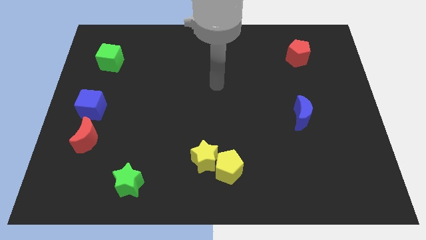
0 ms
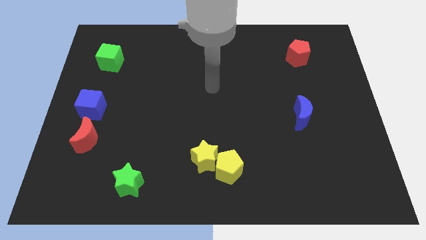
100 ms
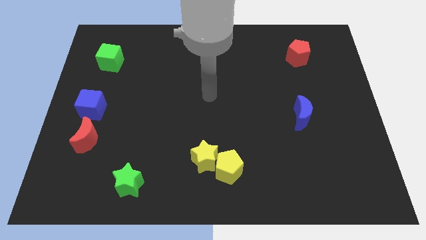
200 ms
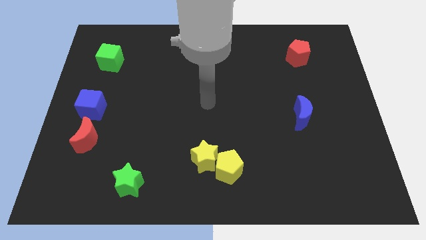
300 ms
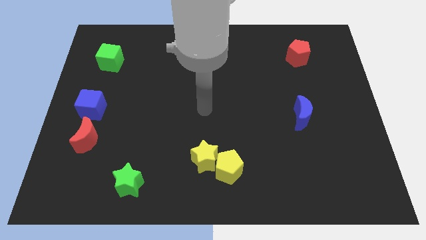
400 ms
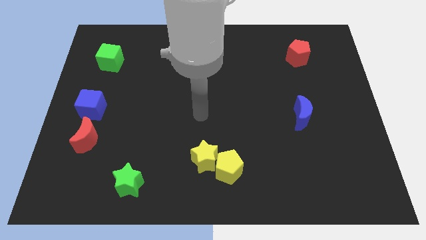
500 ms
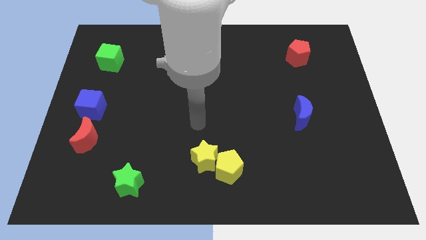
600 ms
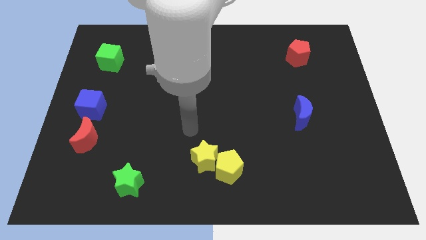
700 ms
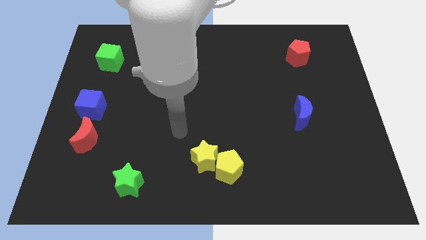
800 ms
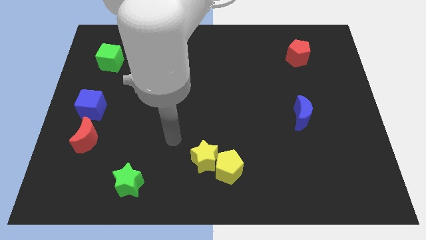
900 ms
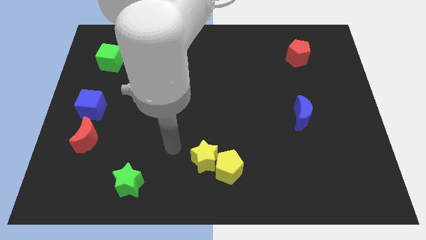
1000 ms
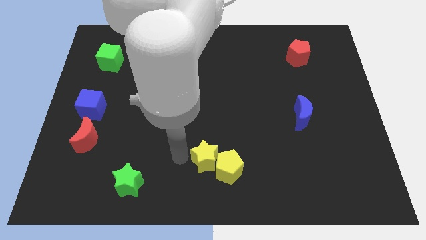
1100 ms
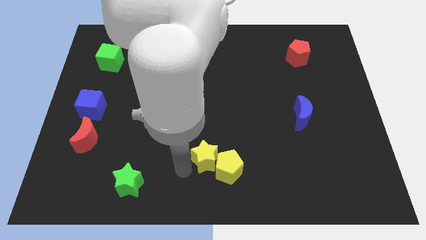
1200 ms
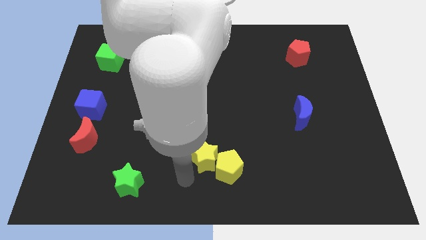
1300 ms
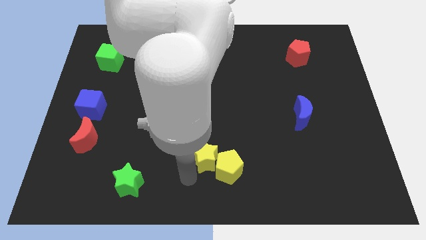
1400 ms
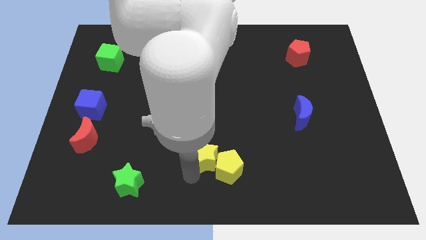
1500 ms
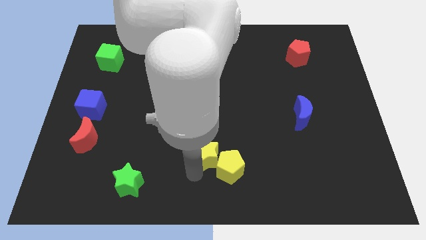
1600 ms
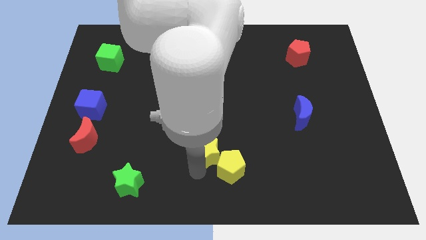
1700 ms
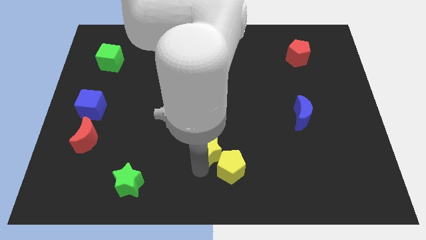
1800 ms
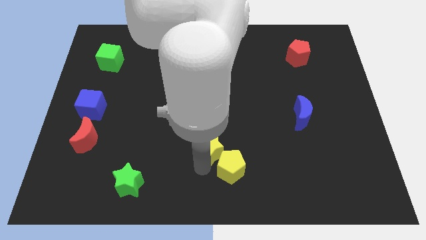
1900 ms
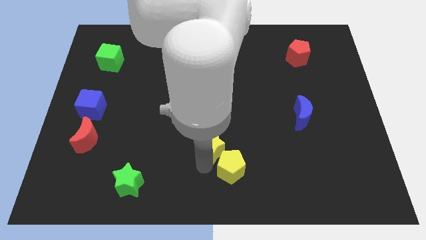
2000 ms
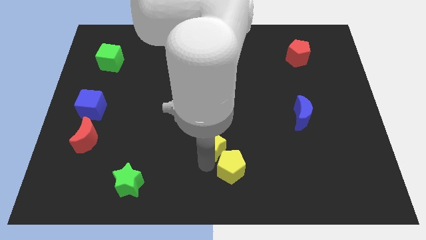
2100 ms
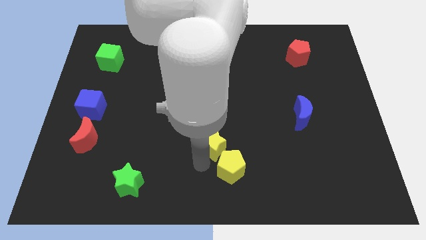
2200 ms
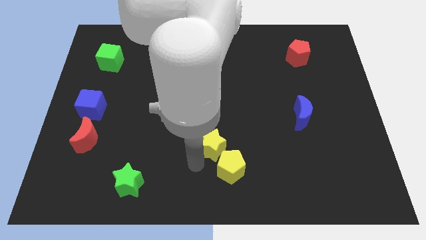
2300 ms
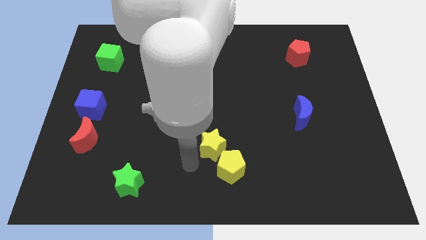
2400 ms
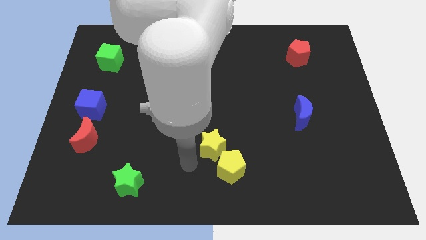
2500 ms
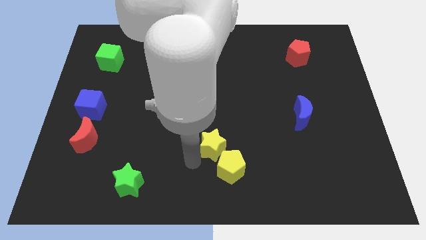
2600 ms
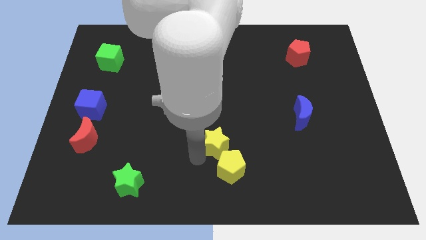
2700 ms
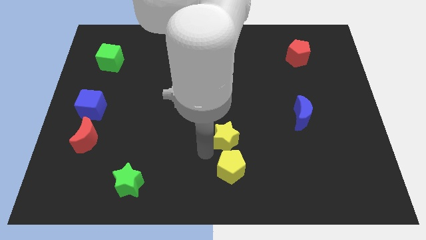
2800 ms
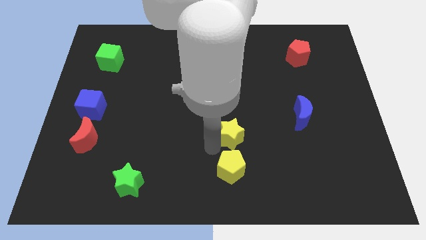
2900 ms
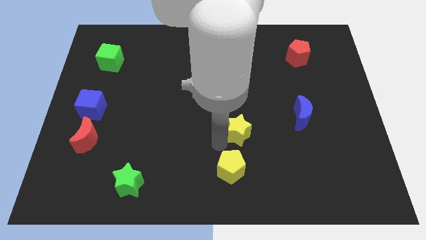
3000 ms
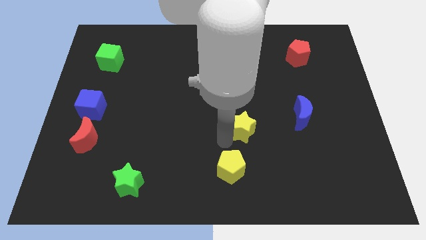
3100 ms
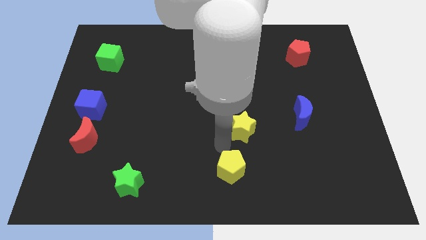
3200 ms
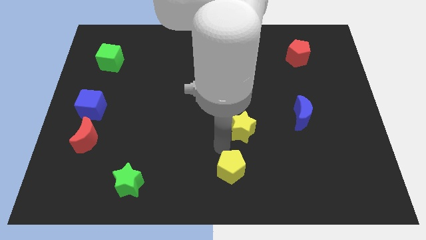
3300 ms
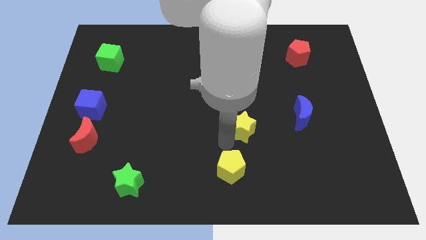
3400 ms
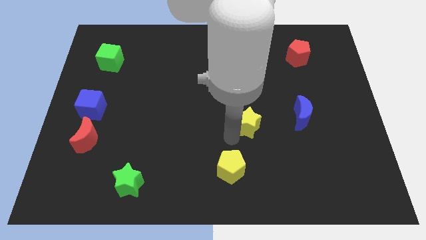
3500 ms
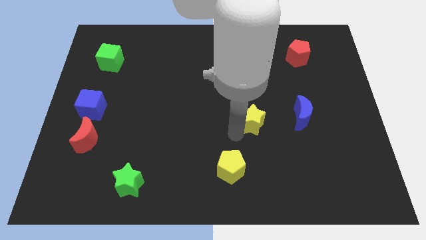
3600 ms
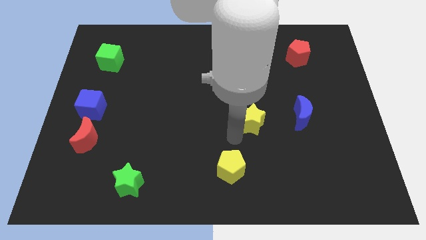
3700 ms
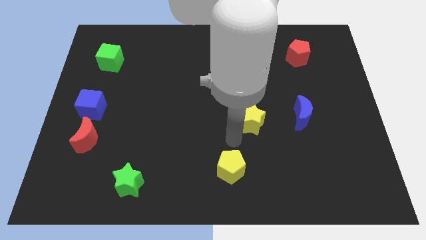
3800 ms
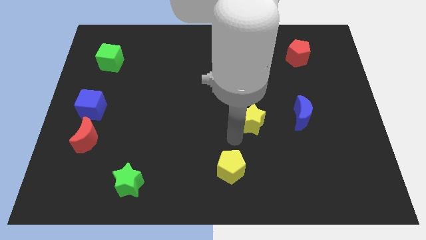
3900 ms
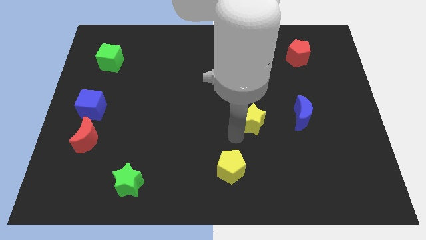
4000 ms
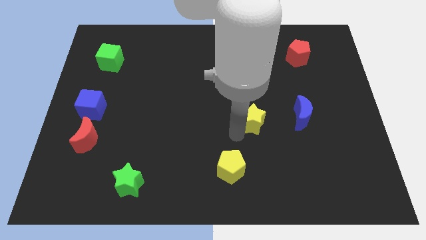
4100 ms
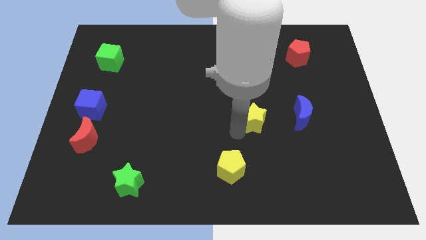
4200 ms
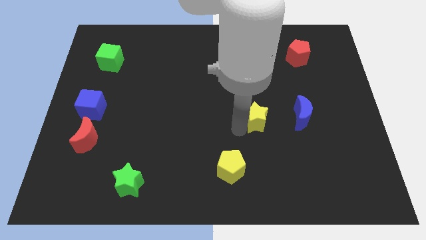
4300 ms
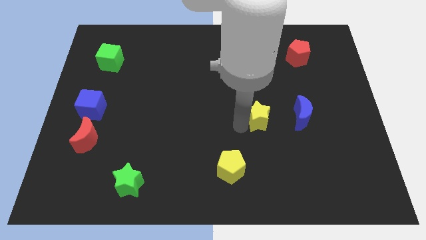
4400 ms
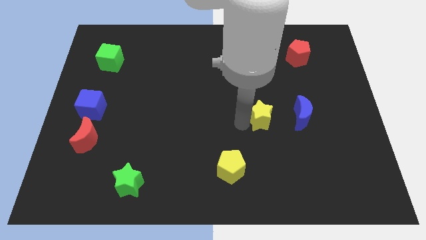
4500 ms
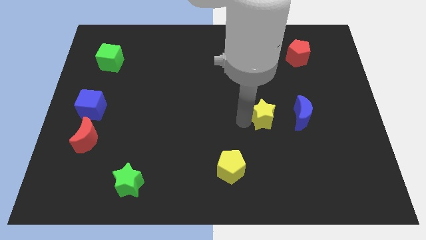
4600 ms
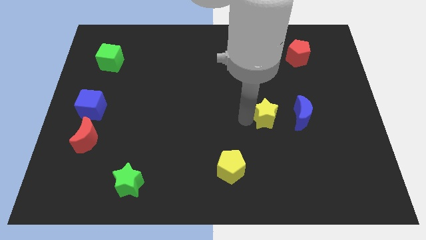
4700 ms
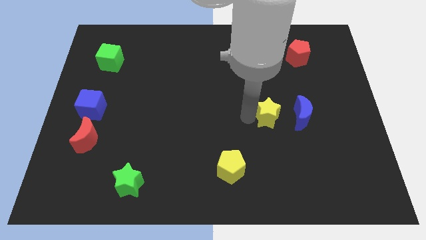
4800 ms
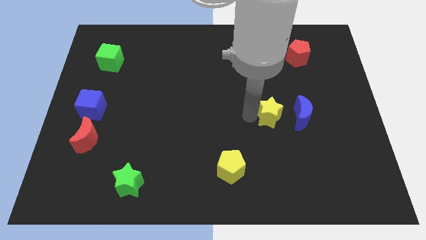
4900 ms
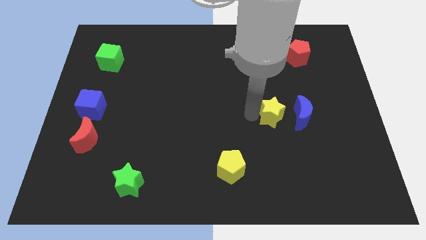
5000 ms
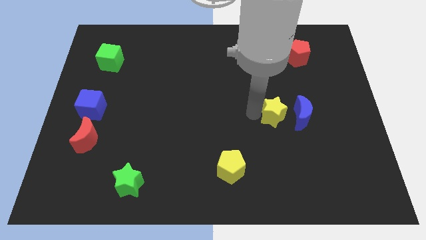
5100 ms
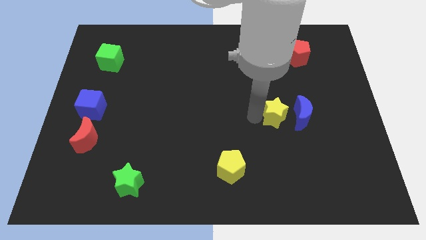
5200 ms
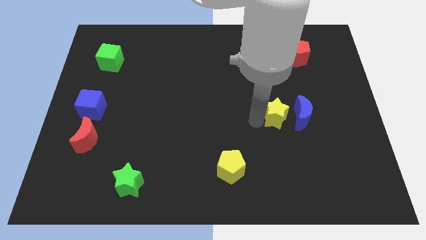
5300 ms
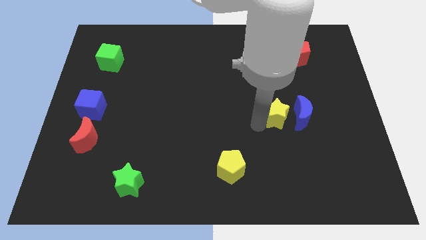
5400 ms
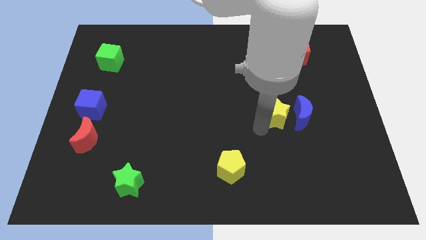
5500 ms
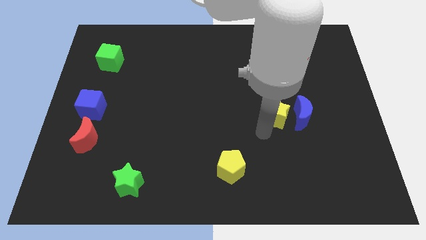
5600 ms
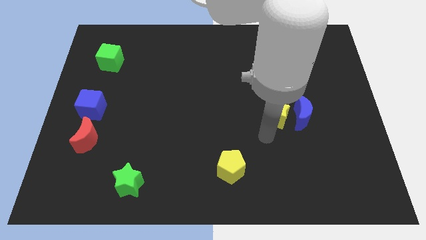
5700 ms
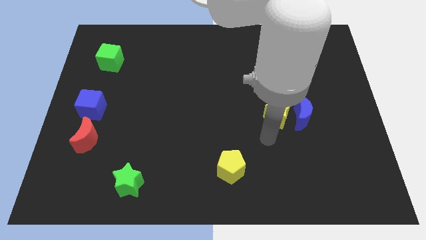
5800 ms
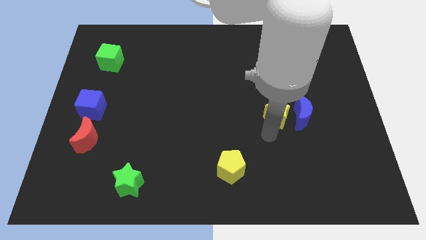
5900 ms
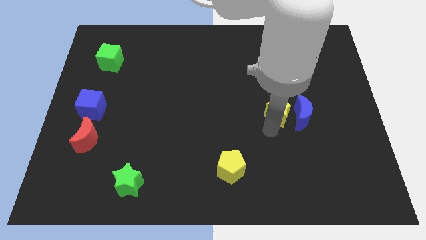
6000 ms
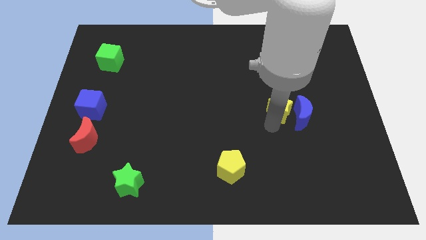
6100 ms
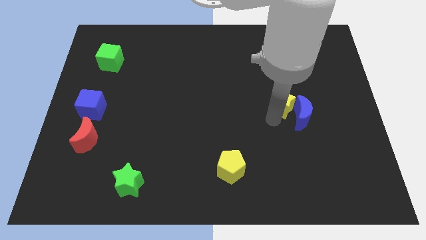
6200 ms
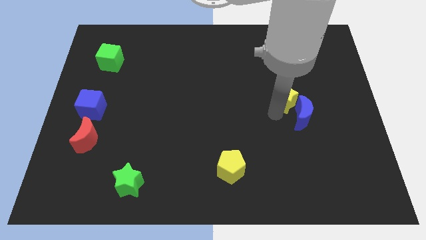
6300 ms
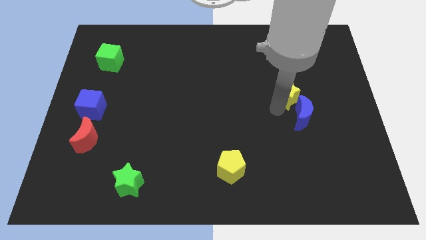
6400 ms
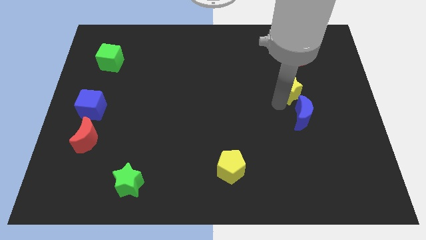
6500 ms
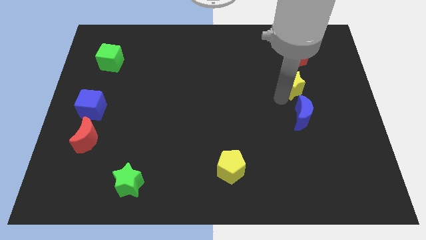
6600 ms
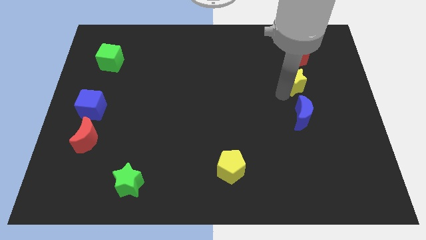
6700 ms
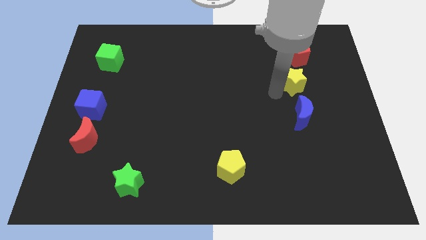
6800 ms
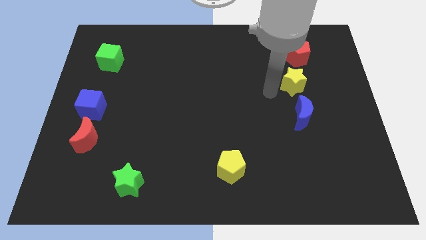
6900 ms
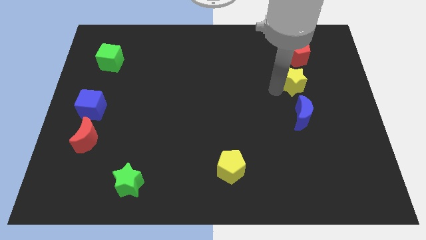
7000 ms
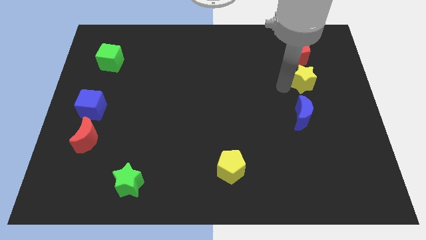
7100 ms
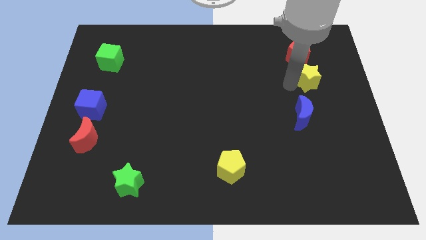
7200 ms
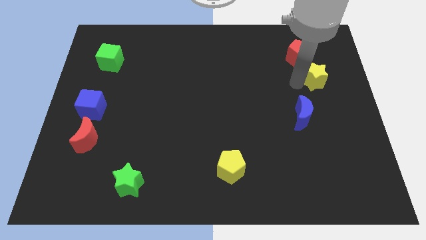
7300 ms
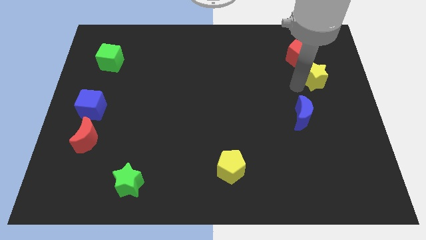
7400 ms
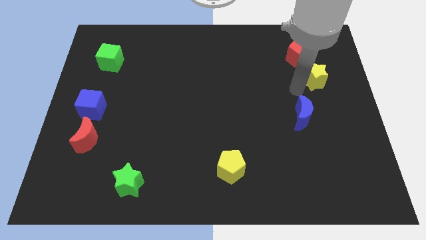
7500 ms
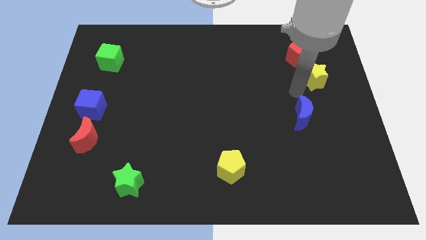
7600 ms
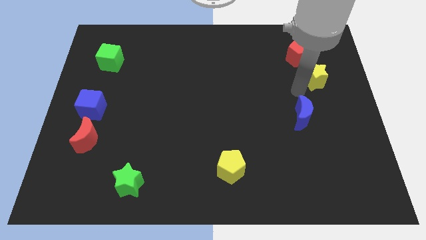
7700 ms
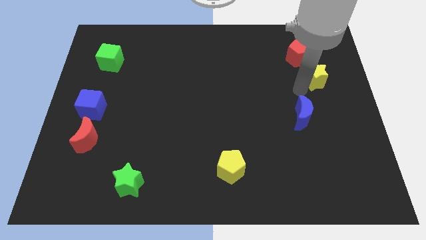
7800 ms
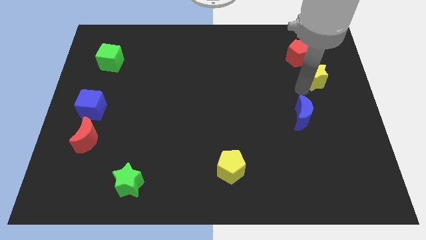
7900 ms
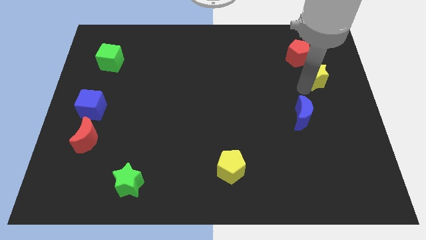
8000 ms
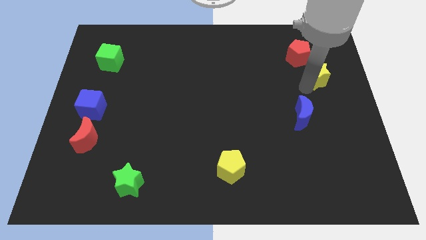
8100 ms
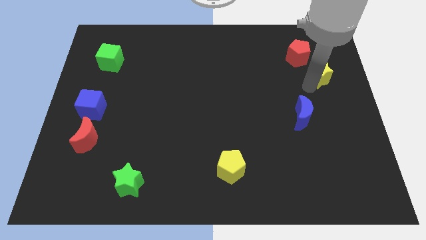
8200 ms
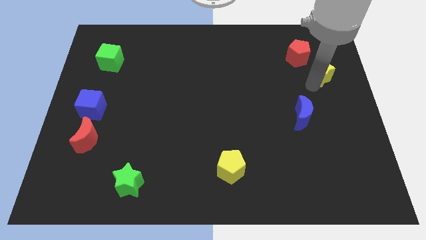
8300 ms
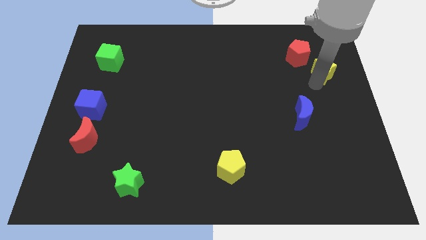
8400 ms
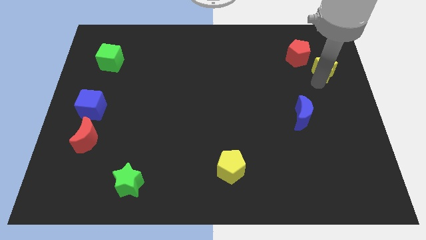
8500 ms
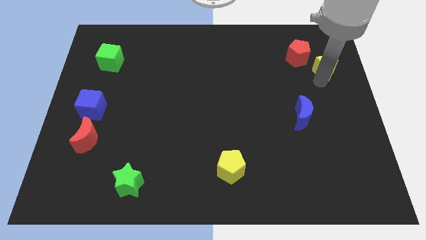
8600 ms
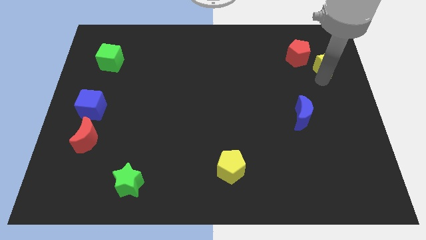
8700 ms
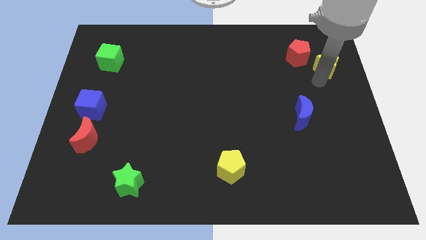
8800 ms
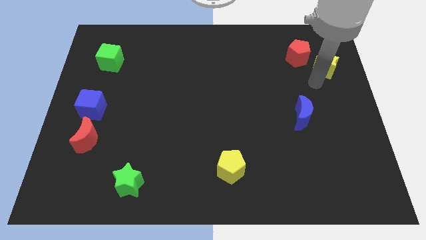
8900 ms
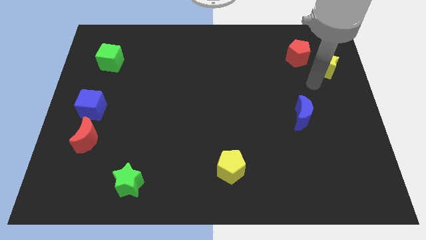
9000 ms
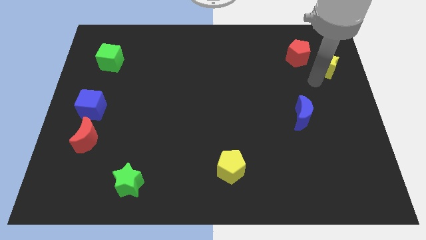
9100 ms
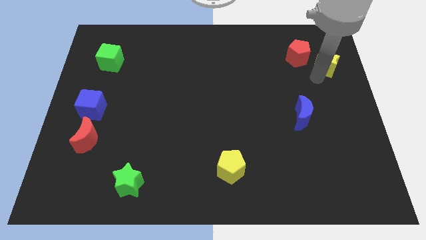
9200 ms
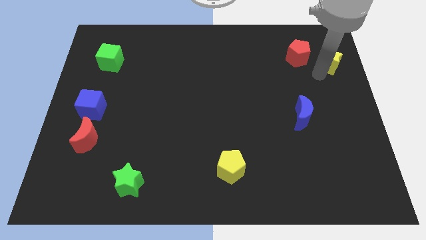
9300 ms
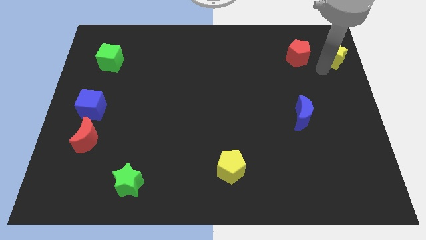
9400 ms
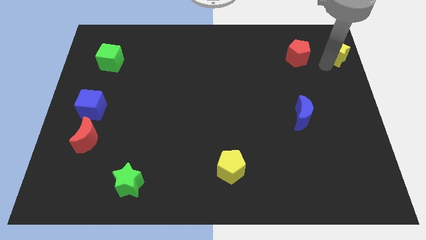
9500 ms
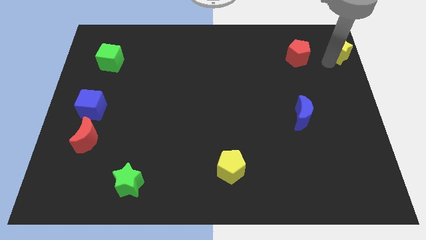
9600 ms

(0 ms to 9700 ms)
put the yellow star to the upper right corner
